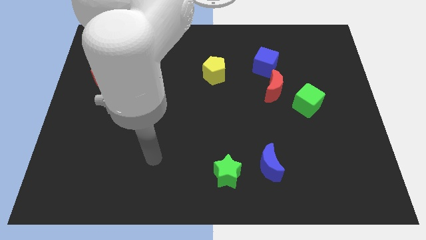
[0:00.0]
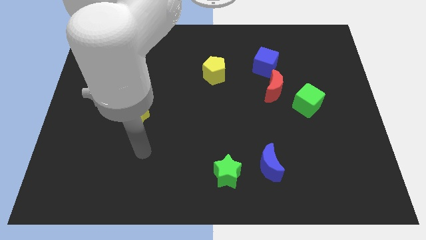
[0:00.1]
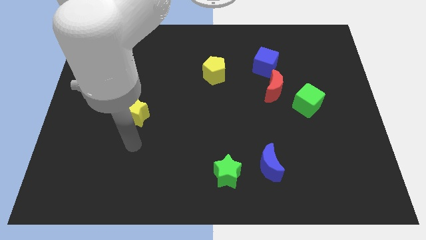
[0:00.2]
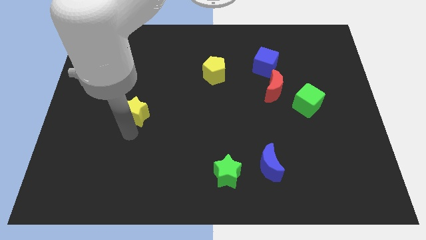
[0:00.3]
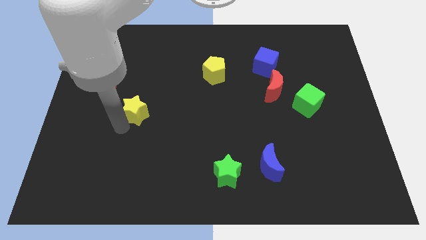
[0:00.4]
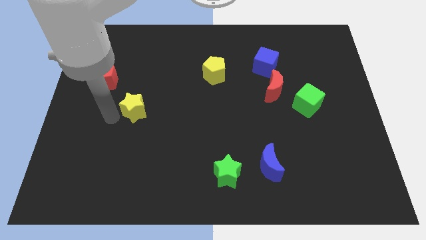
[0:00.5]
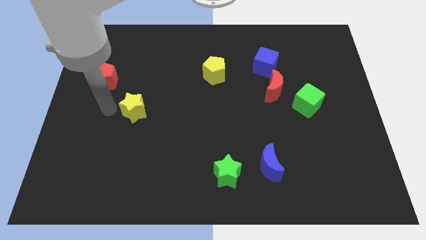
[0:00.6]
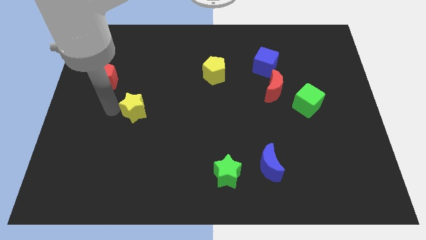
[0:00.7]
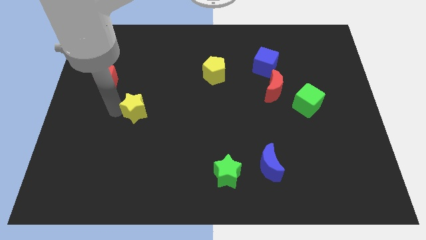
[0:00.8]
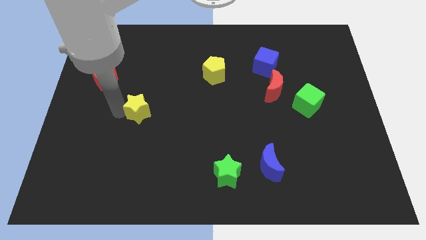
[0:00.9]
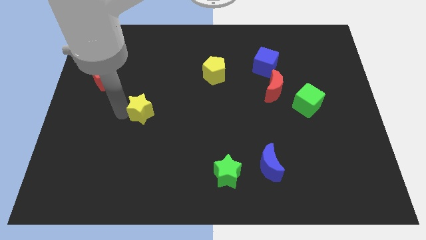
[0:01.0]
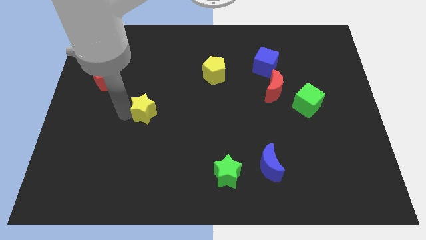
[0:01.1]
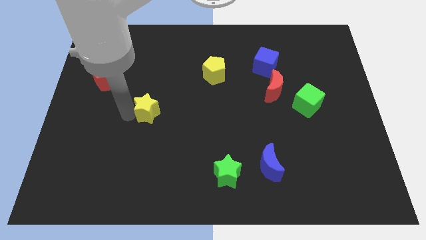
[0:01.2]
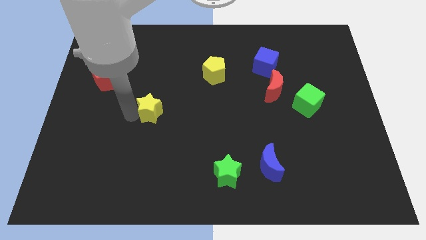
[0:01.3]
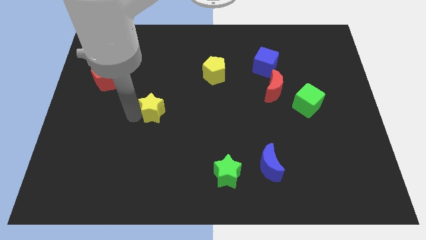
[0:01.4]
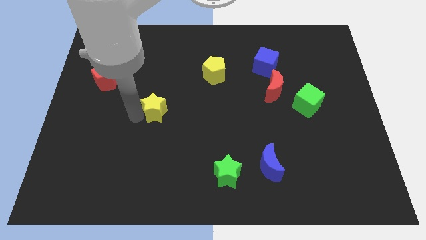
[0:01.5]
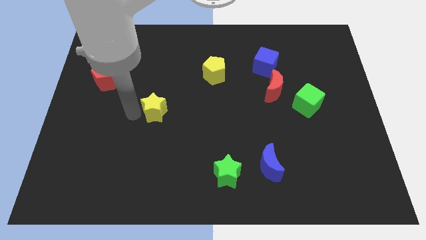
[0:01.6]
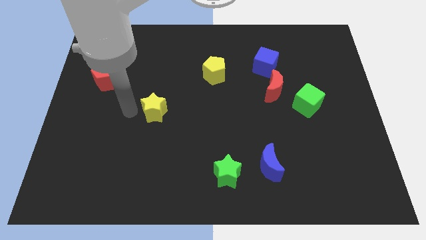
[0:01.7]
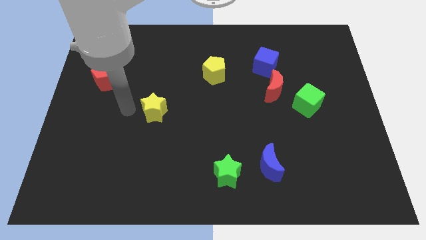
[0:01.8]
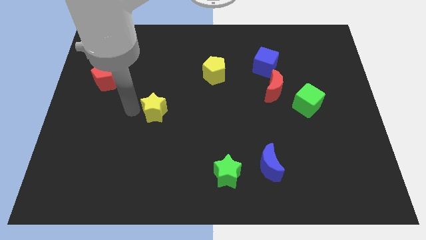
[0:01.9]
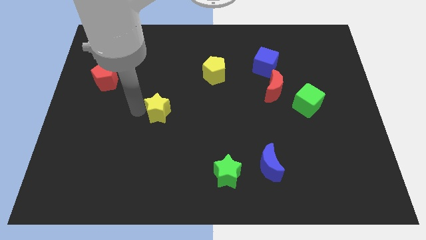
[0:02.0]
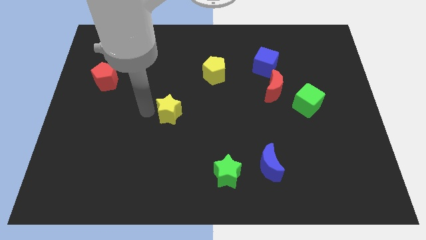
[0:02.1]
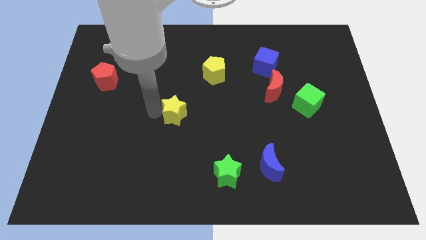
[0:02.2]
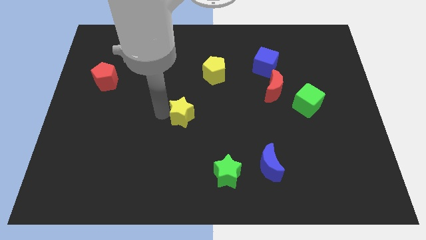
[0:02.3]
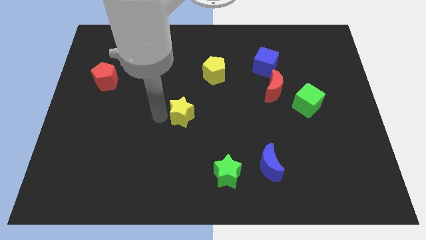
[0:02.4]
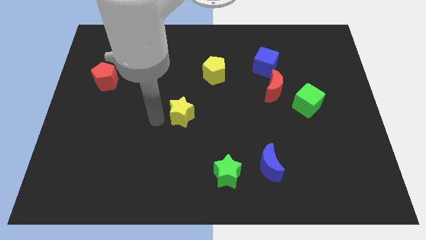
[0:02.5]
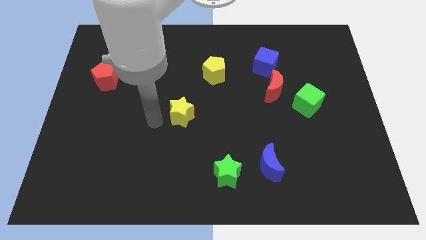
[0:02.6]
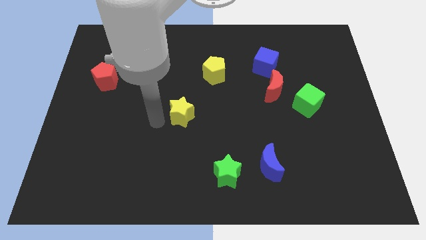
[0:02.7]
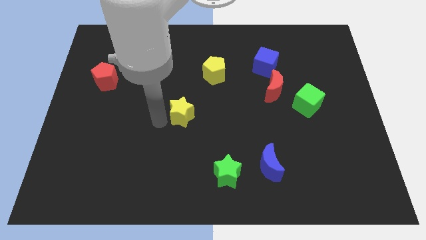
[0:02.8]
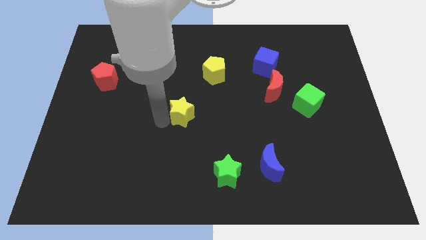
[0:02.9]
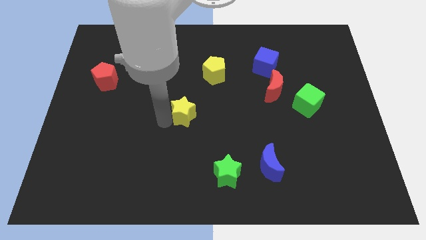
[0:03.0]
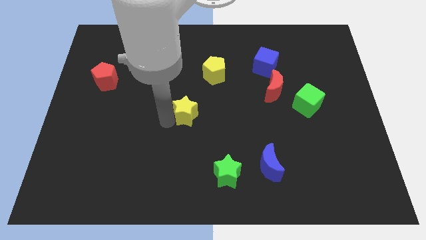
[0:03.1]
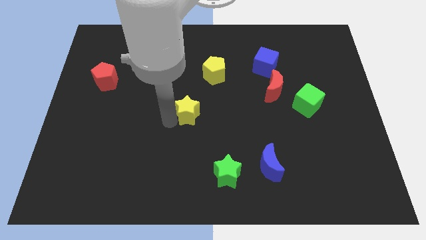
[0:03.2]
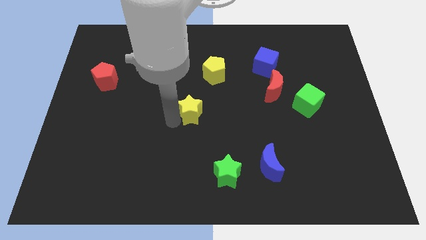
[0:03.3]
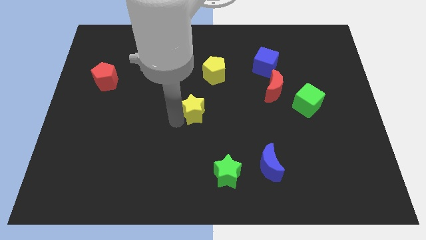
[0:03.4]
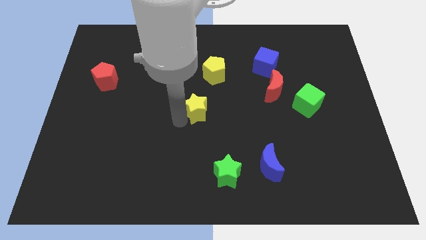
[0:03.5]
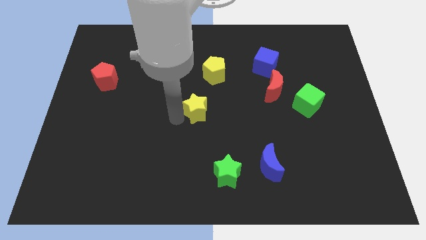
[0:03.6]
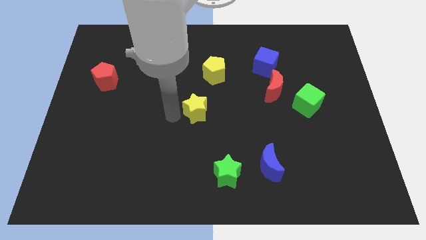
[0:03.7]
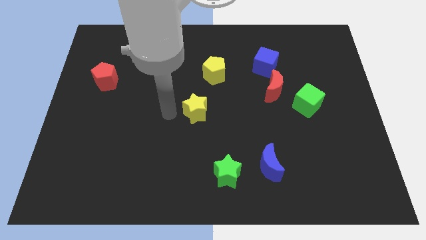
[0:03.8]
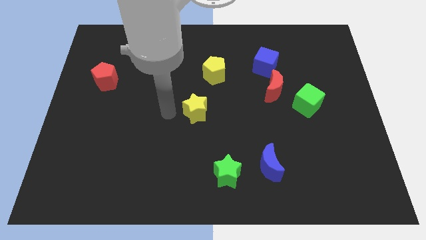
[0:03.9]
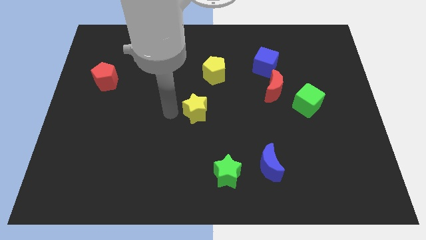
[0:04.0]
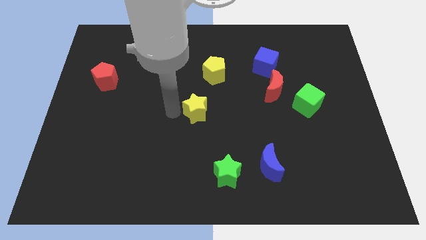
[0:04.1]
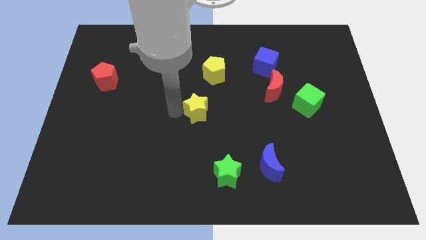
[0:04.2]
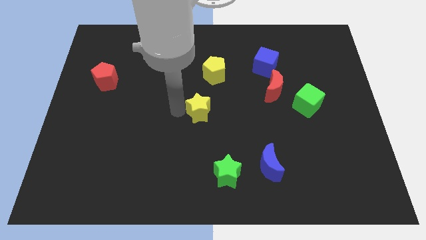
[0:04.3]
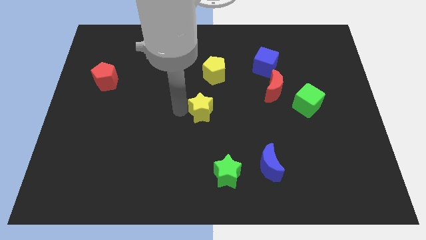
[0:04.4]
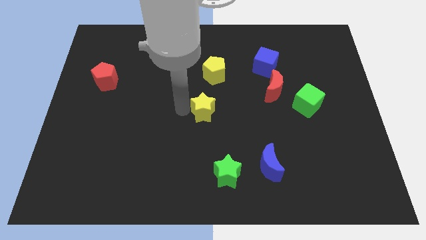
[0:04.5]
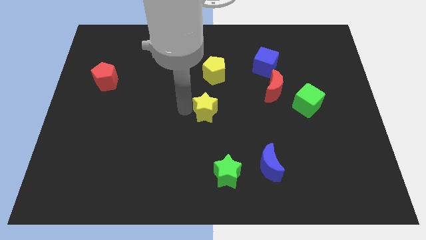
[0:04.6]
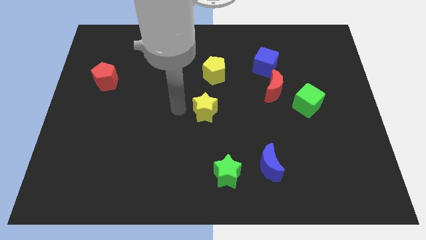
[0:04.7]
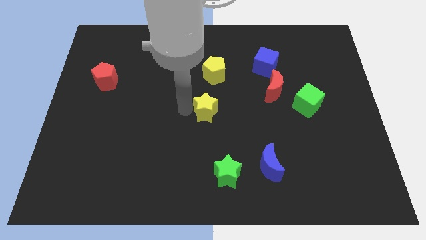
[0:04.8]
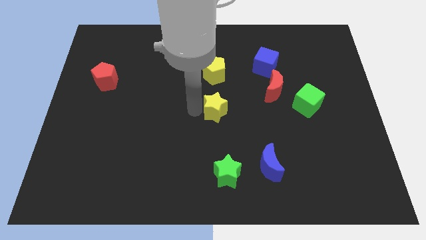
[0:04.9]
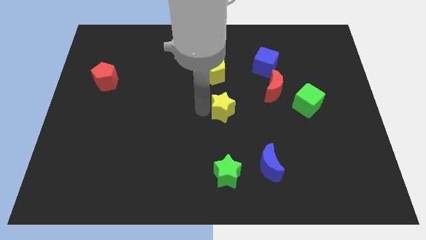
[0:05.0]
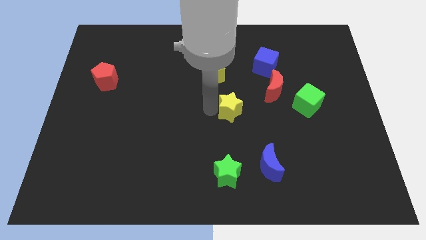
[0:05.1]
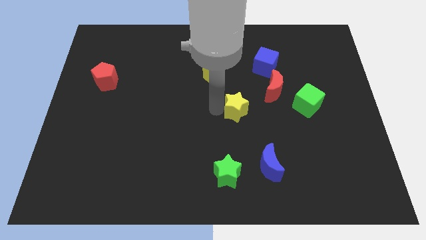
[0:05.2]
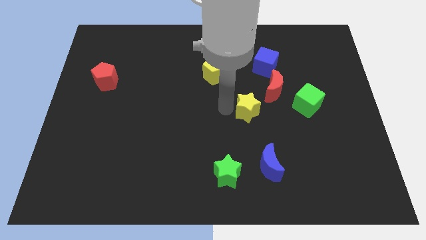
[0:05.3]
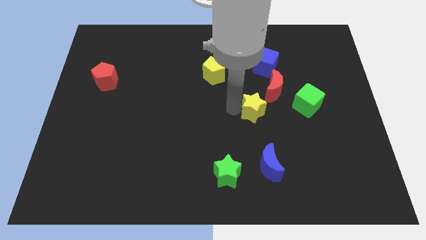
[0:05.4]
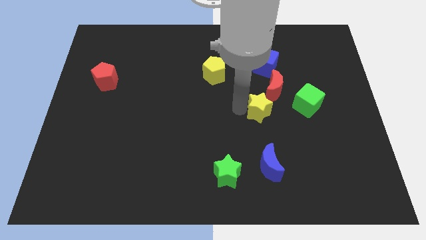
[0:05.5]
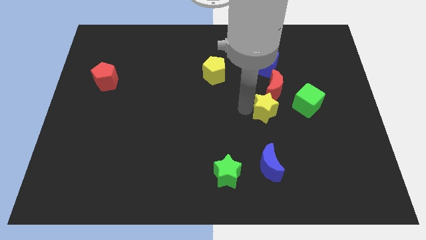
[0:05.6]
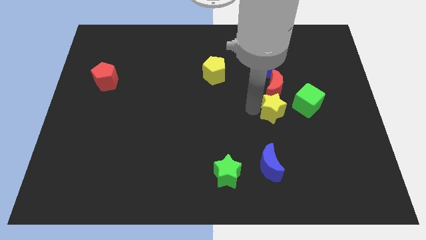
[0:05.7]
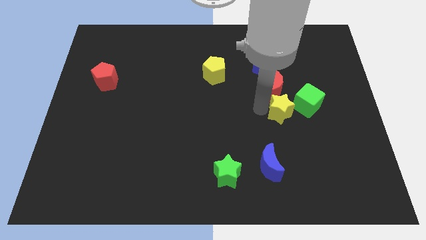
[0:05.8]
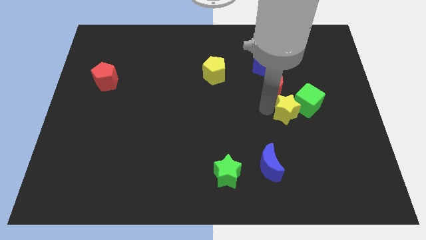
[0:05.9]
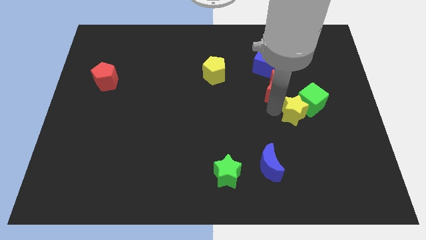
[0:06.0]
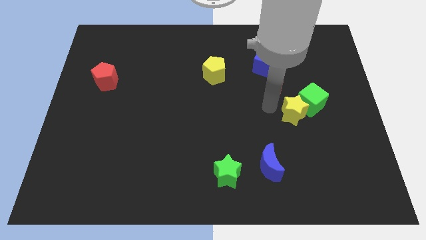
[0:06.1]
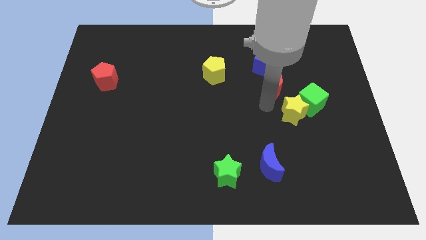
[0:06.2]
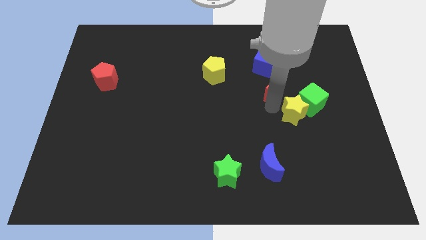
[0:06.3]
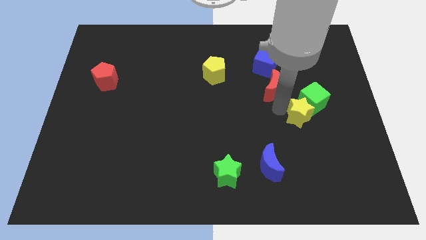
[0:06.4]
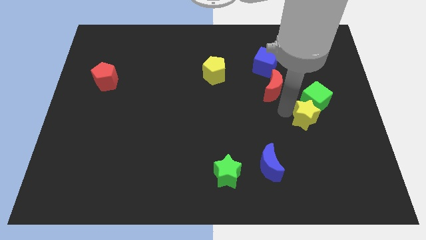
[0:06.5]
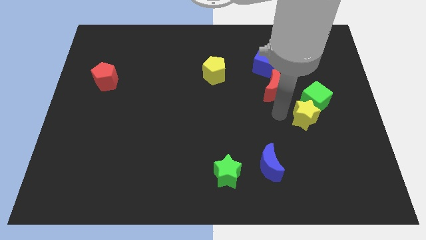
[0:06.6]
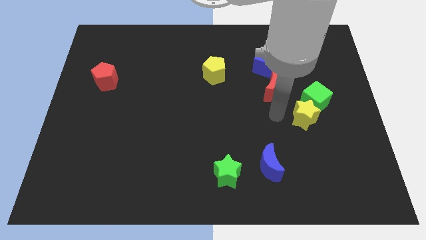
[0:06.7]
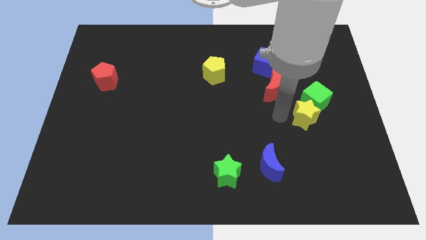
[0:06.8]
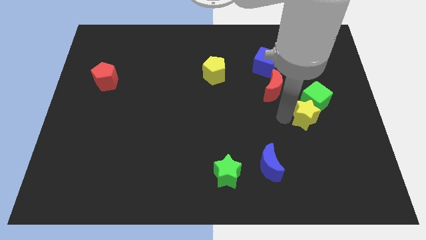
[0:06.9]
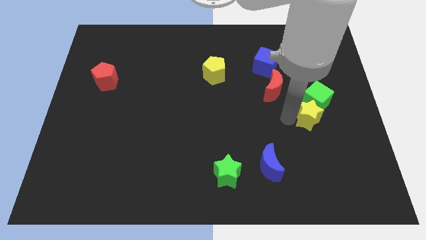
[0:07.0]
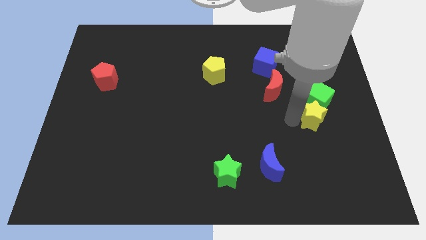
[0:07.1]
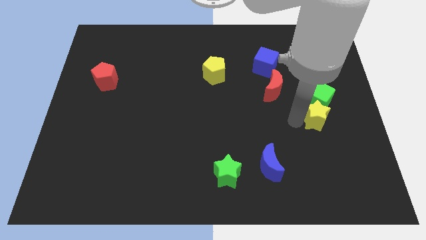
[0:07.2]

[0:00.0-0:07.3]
push the yellow star to the bottom right of the green cube
